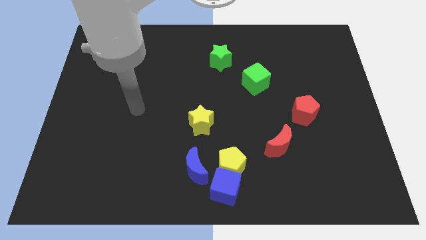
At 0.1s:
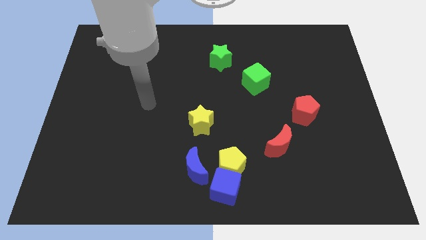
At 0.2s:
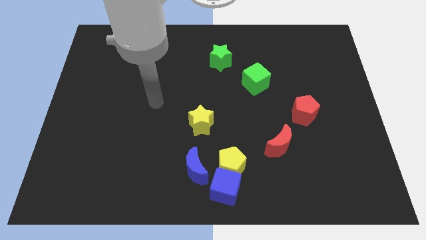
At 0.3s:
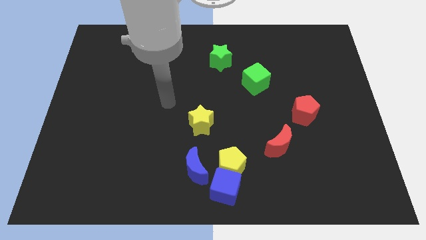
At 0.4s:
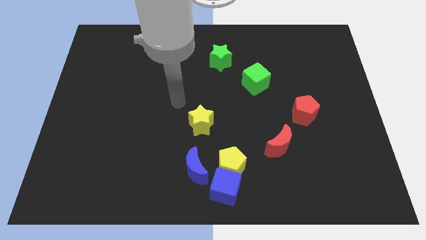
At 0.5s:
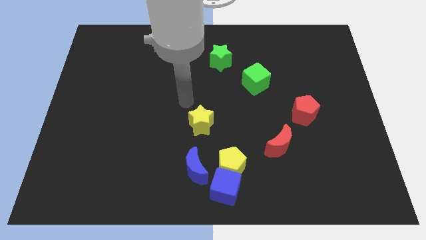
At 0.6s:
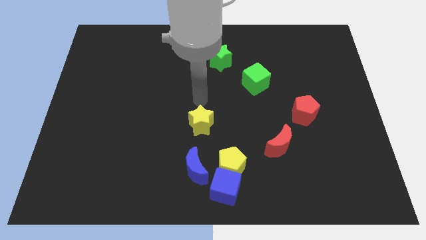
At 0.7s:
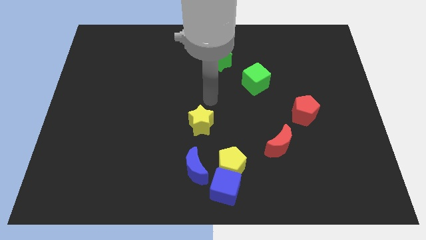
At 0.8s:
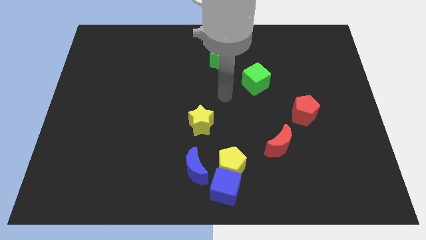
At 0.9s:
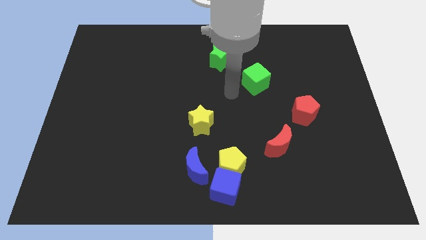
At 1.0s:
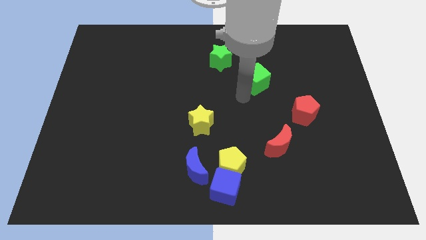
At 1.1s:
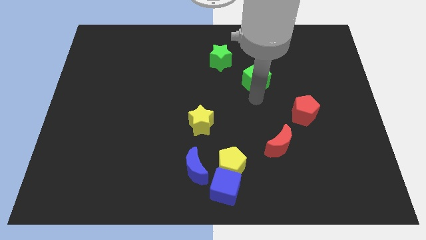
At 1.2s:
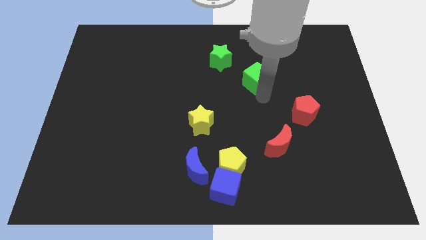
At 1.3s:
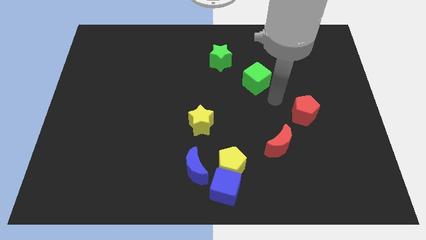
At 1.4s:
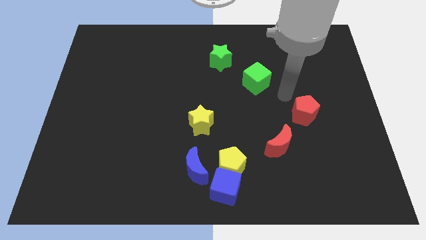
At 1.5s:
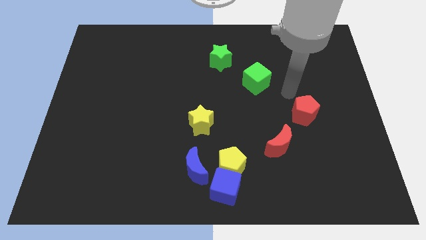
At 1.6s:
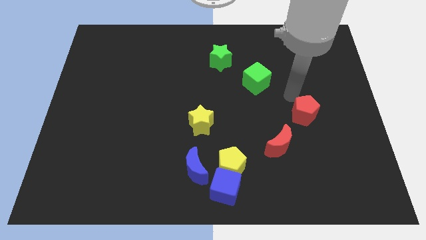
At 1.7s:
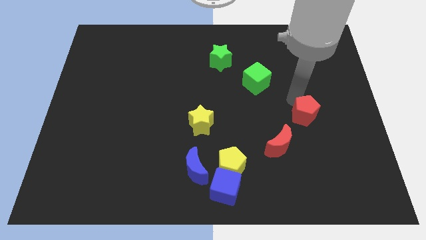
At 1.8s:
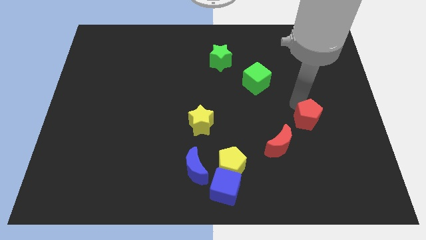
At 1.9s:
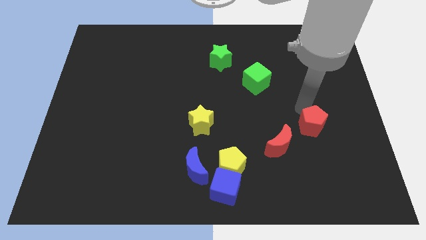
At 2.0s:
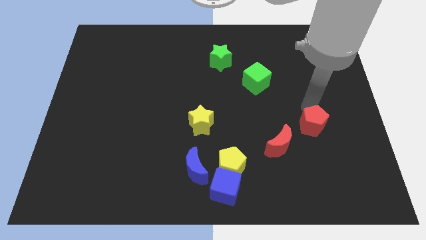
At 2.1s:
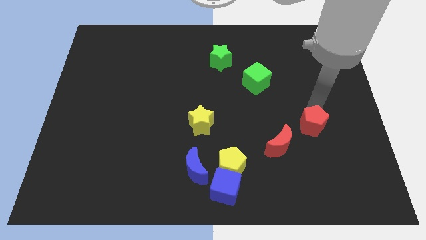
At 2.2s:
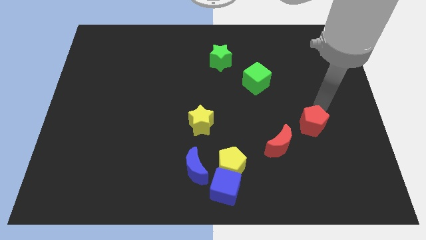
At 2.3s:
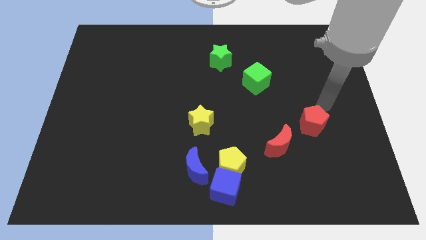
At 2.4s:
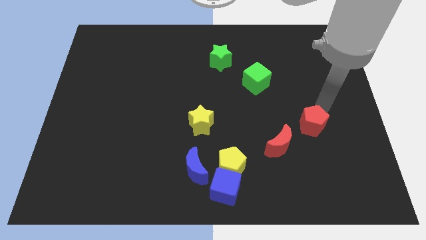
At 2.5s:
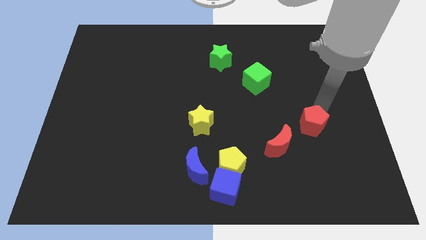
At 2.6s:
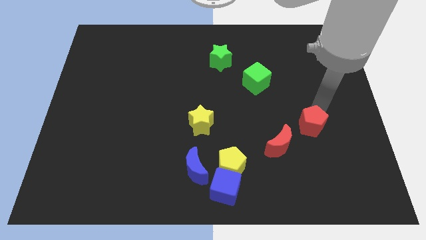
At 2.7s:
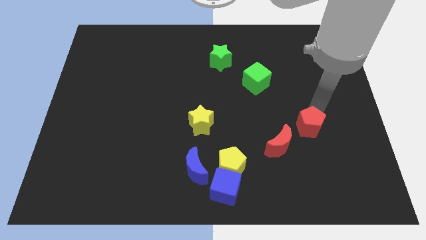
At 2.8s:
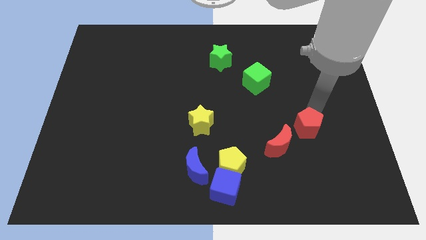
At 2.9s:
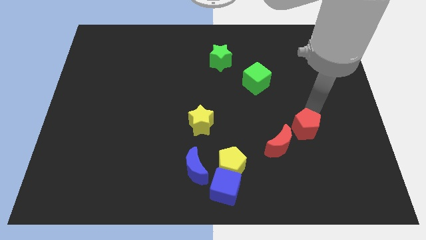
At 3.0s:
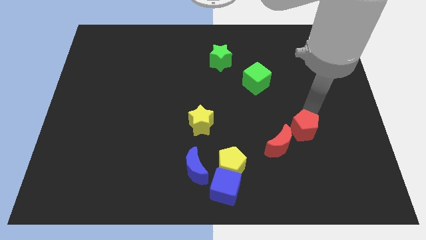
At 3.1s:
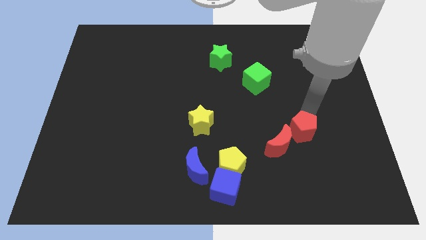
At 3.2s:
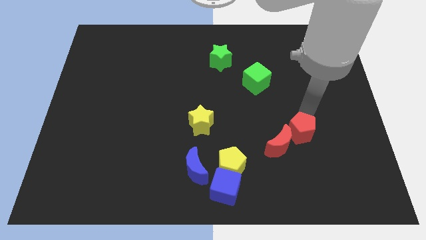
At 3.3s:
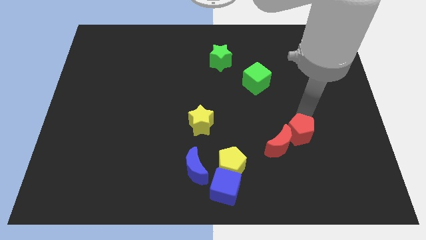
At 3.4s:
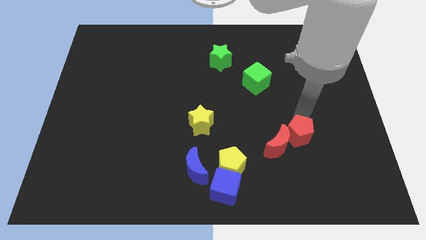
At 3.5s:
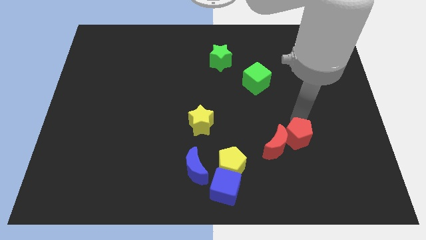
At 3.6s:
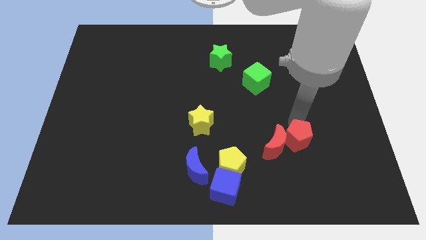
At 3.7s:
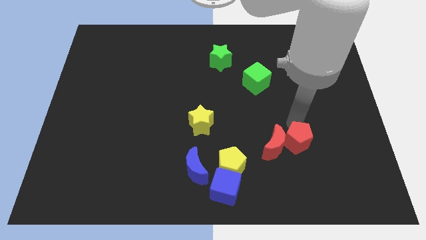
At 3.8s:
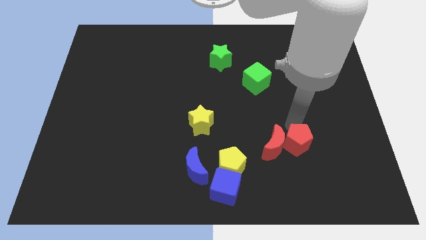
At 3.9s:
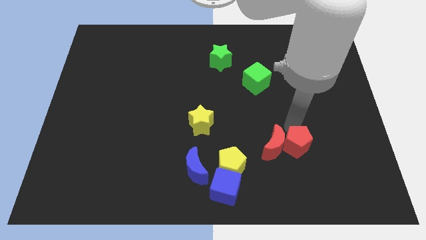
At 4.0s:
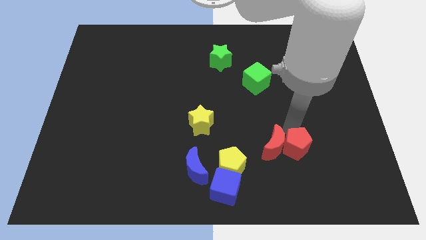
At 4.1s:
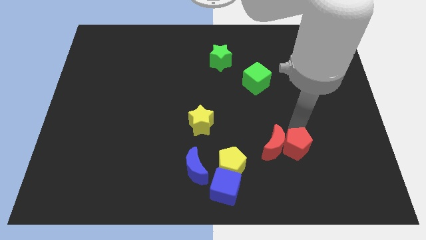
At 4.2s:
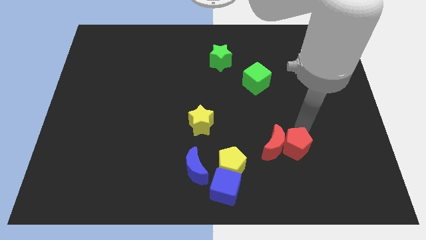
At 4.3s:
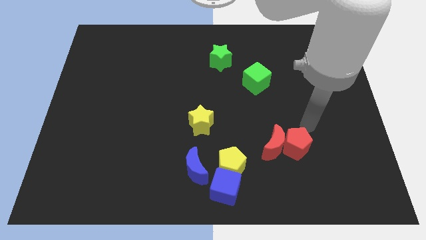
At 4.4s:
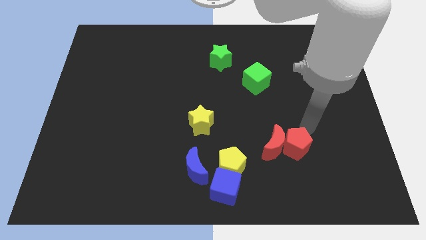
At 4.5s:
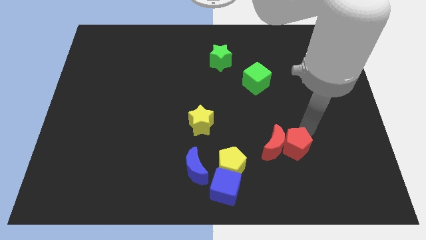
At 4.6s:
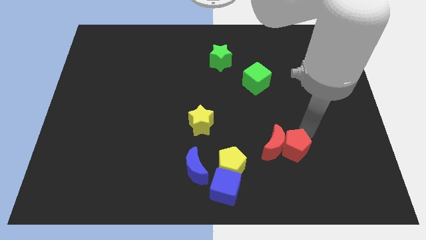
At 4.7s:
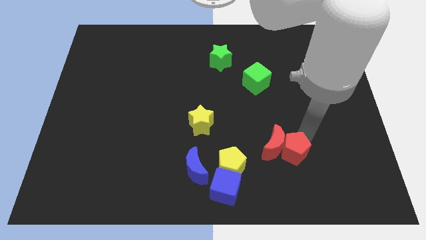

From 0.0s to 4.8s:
move the red pentagon to the right side of the yellow pentagon

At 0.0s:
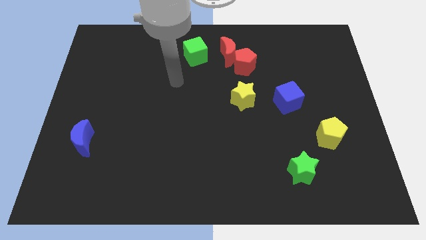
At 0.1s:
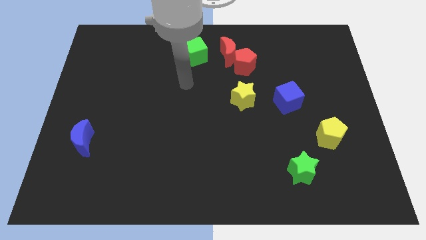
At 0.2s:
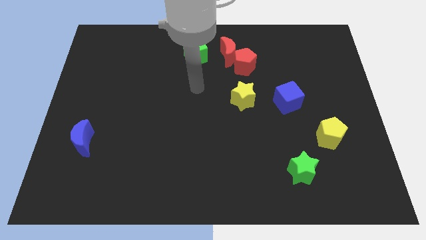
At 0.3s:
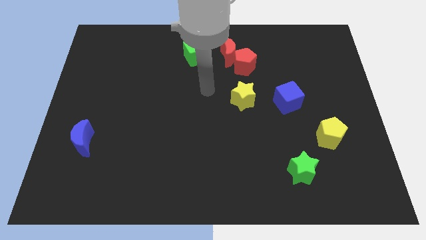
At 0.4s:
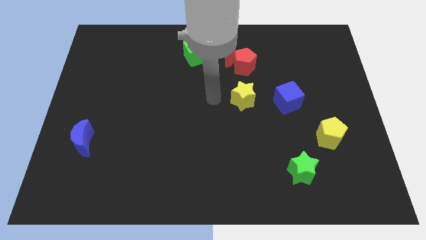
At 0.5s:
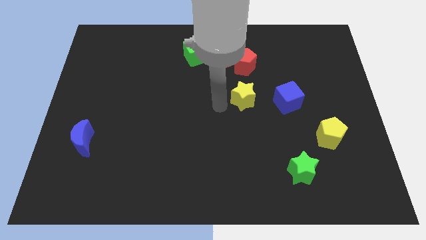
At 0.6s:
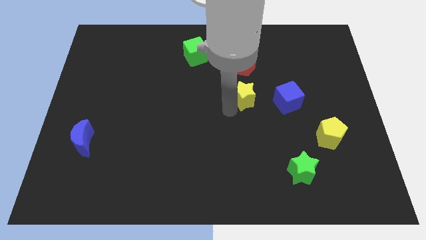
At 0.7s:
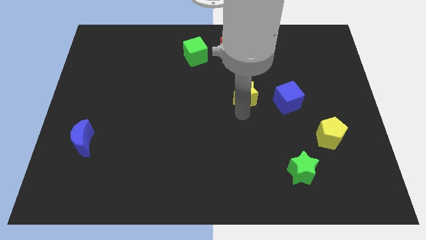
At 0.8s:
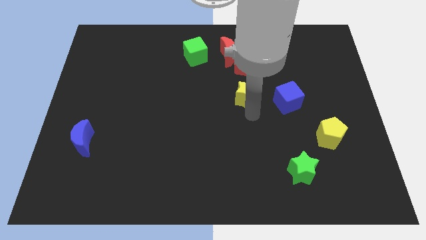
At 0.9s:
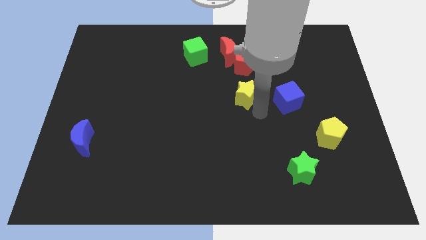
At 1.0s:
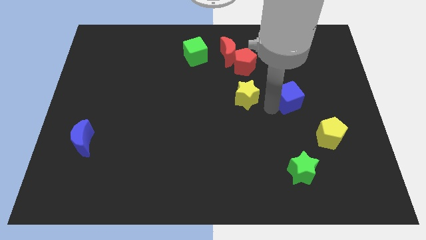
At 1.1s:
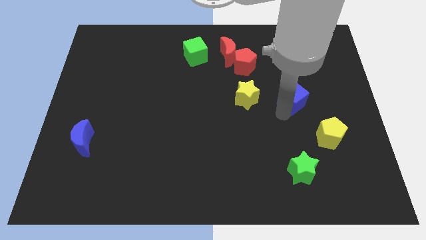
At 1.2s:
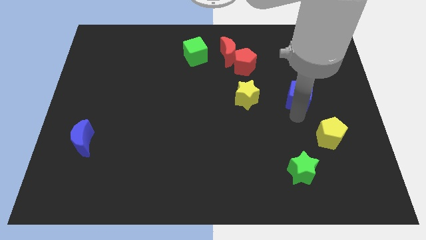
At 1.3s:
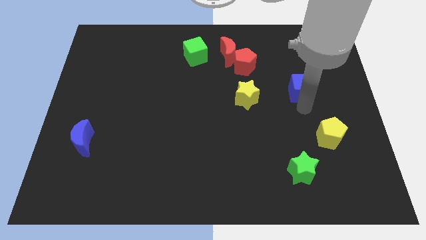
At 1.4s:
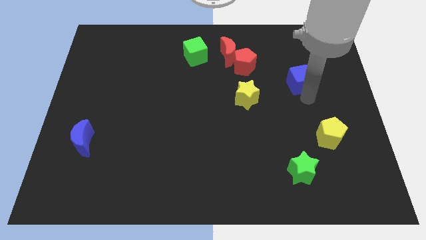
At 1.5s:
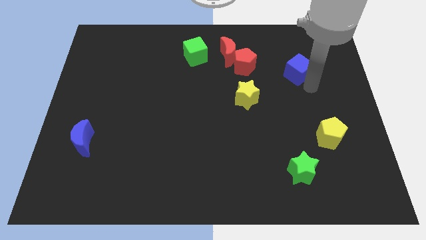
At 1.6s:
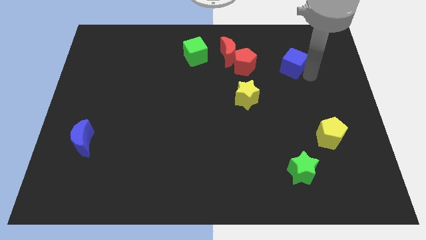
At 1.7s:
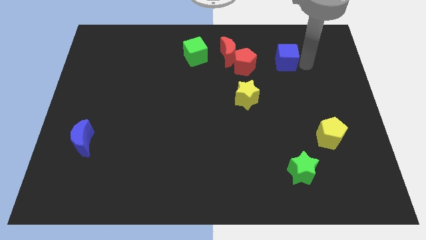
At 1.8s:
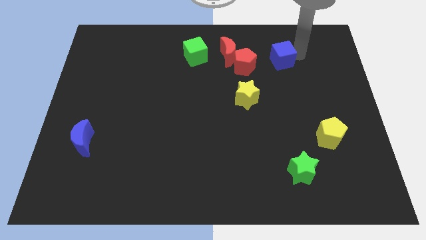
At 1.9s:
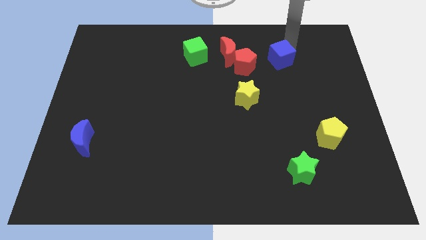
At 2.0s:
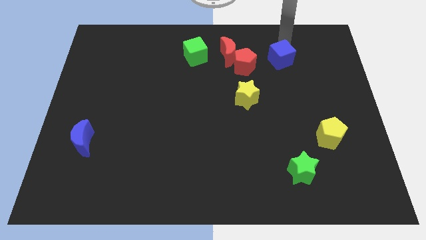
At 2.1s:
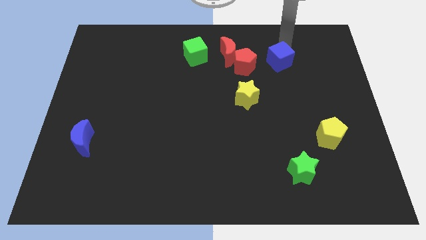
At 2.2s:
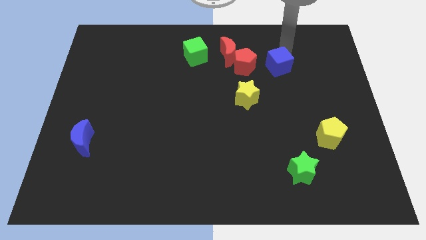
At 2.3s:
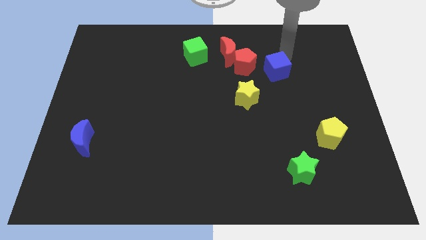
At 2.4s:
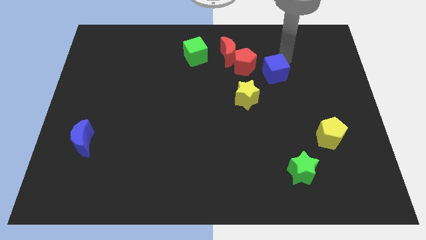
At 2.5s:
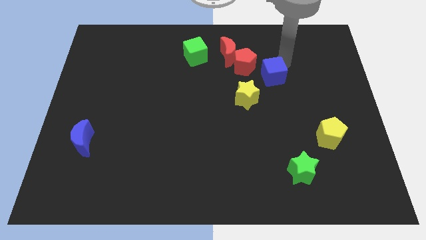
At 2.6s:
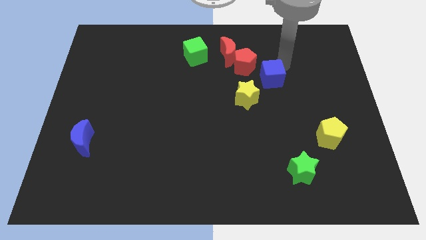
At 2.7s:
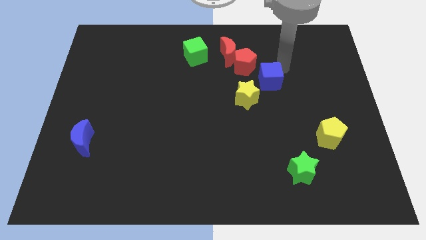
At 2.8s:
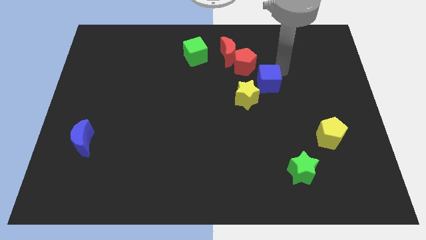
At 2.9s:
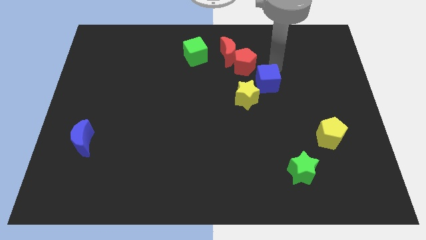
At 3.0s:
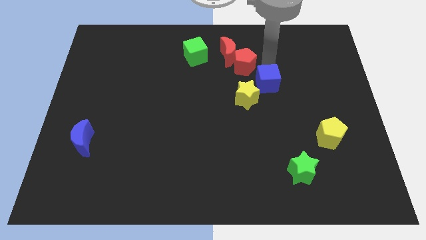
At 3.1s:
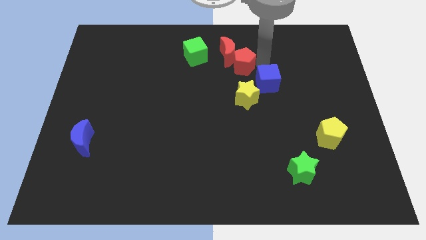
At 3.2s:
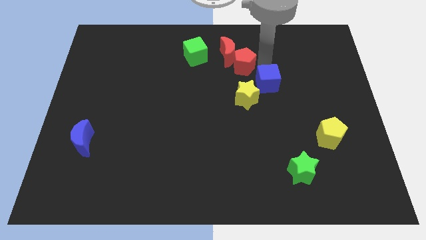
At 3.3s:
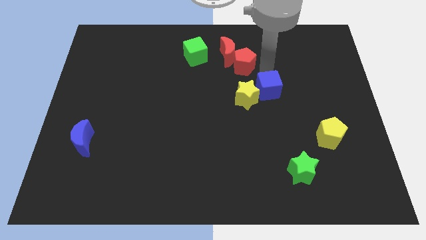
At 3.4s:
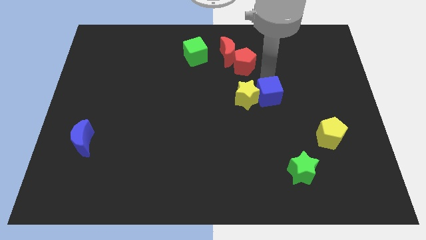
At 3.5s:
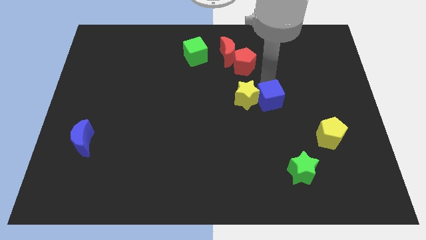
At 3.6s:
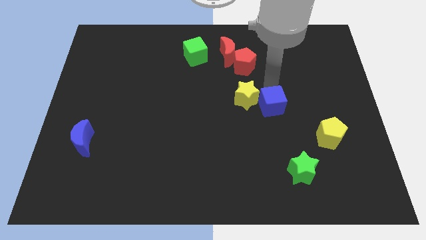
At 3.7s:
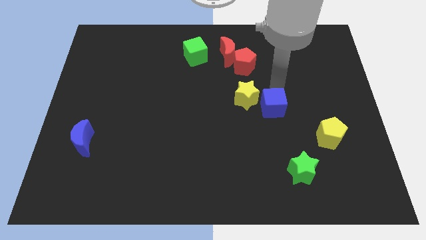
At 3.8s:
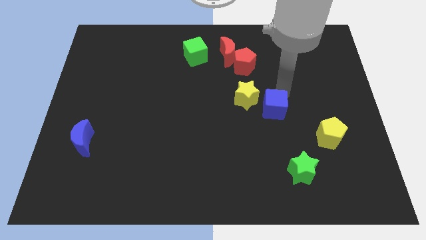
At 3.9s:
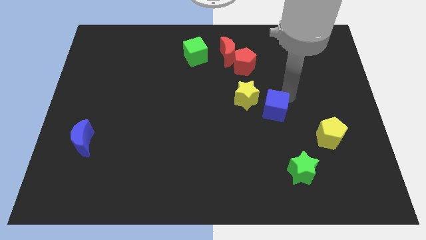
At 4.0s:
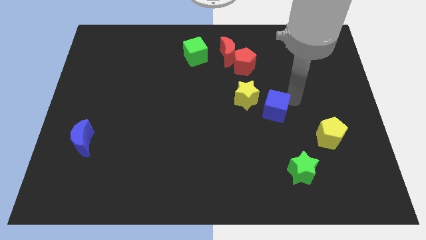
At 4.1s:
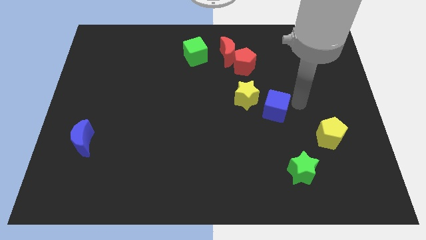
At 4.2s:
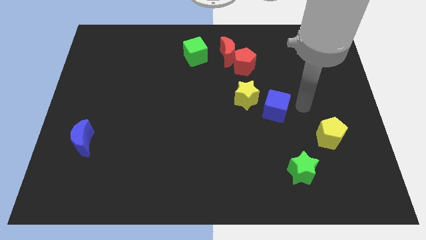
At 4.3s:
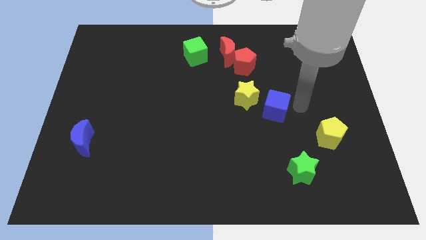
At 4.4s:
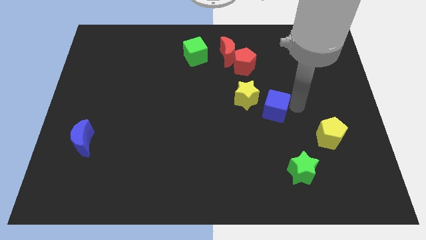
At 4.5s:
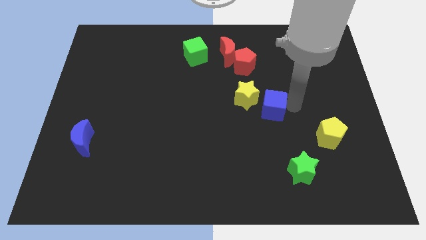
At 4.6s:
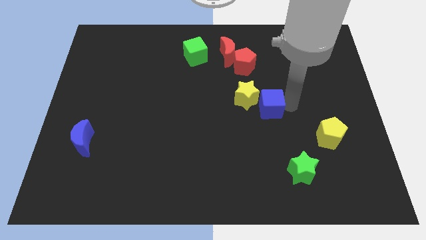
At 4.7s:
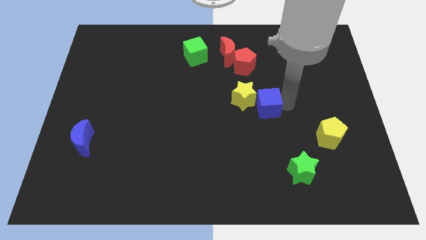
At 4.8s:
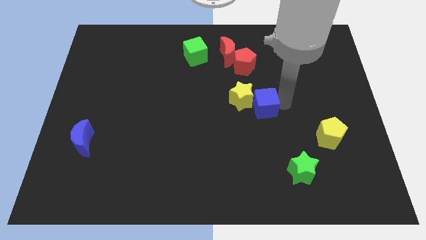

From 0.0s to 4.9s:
slide the blue cube below the red pentagon
